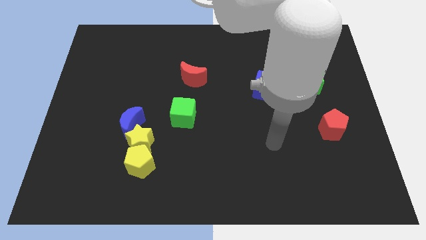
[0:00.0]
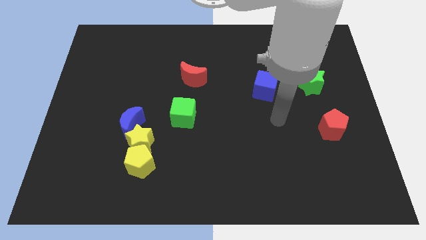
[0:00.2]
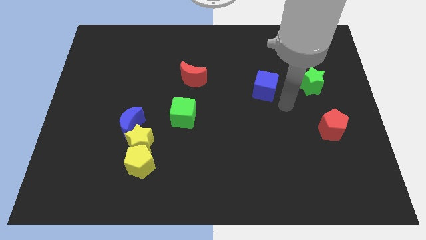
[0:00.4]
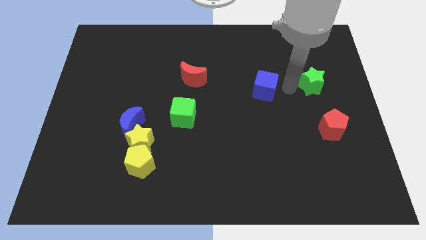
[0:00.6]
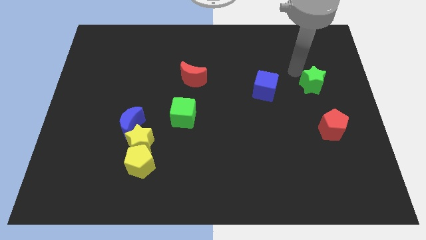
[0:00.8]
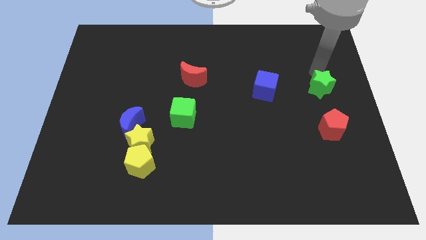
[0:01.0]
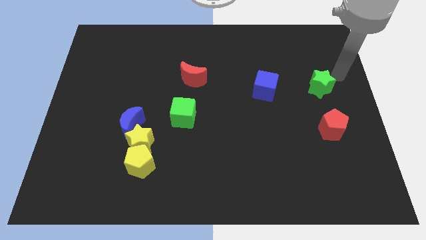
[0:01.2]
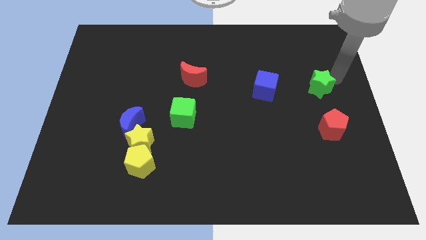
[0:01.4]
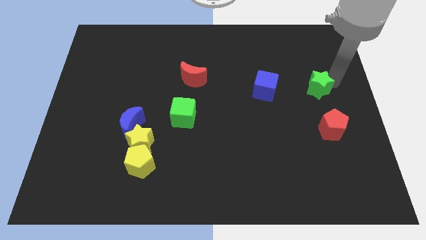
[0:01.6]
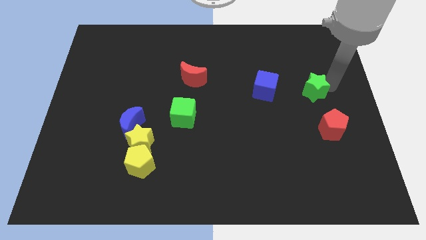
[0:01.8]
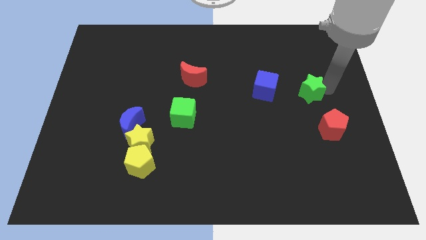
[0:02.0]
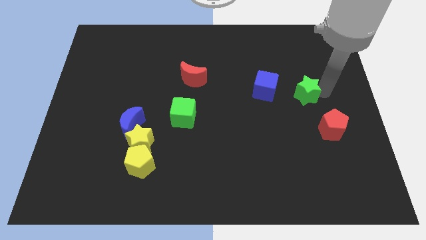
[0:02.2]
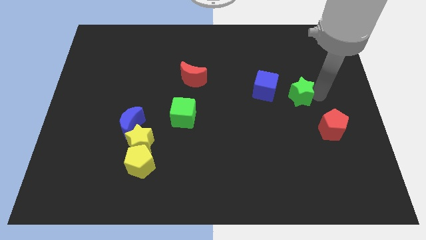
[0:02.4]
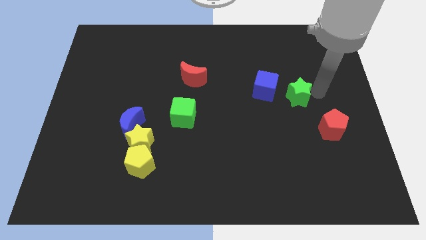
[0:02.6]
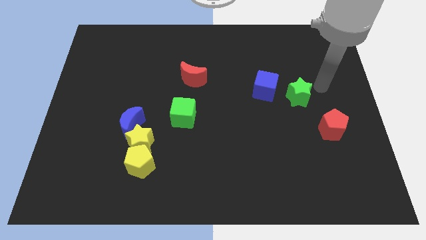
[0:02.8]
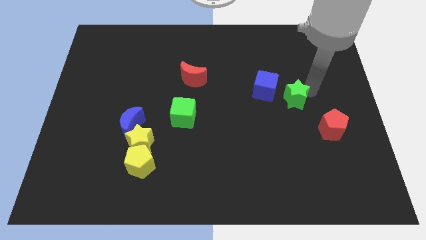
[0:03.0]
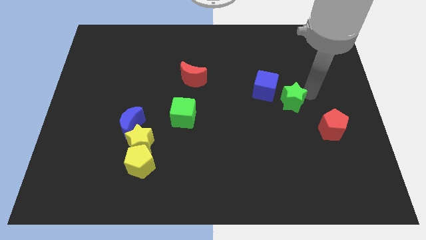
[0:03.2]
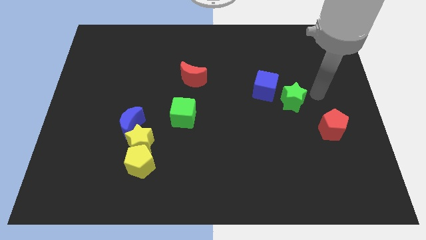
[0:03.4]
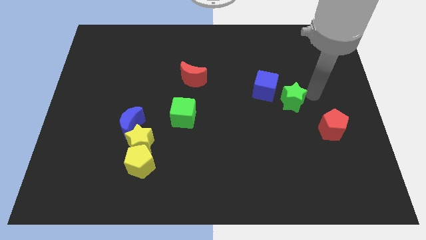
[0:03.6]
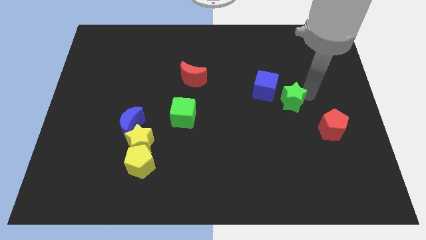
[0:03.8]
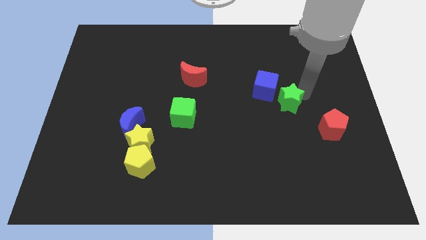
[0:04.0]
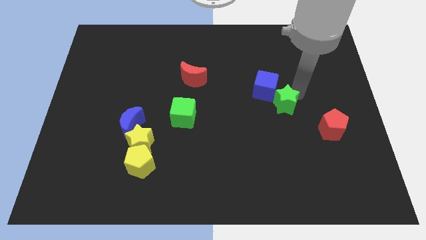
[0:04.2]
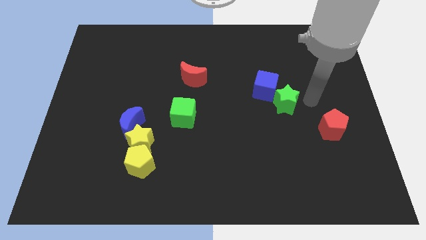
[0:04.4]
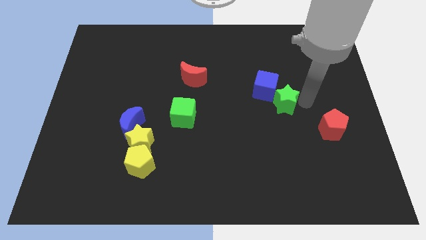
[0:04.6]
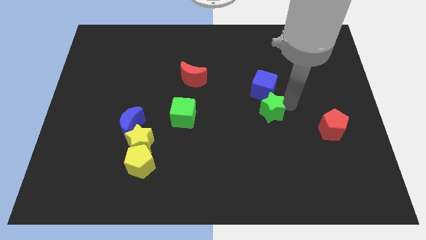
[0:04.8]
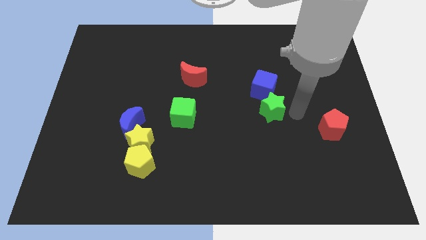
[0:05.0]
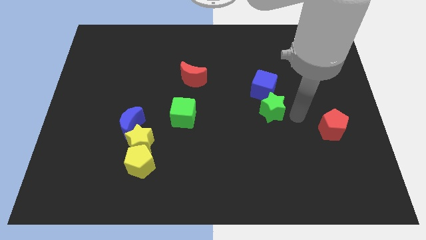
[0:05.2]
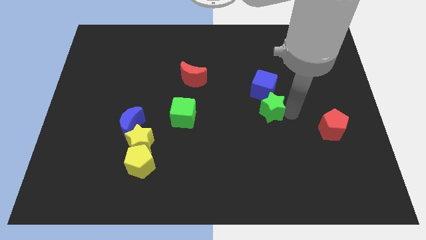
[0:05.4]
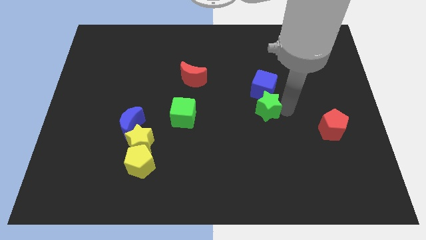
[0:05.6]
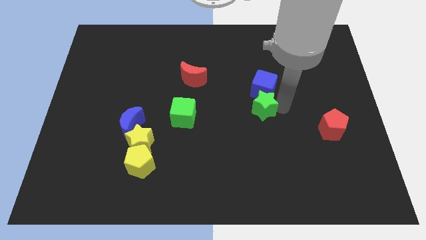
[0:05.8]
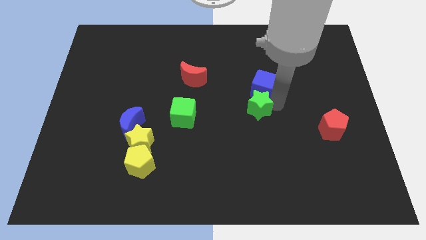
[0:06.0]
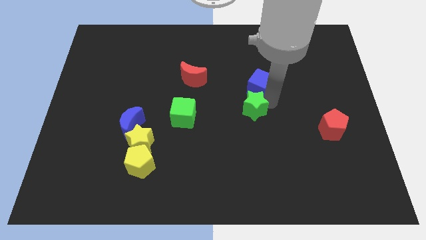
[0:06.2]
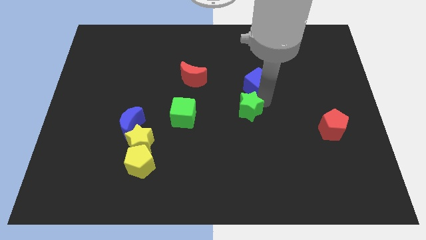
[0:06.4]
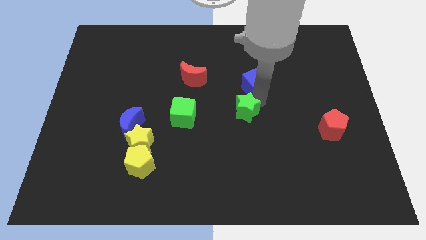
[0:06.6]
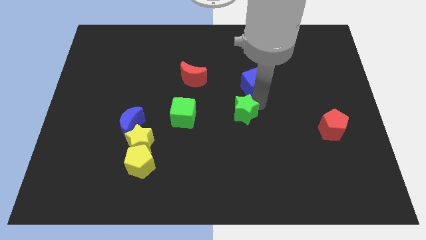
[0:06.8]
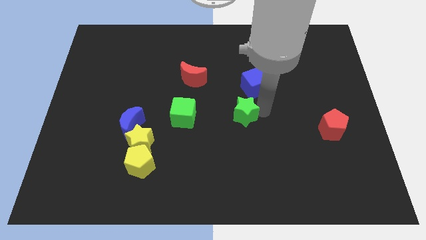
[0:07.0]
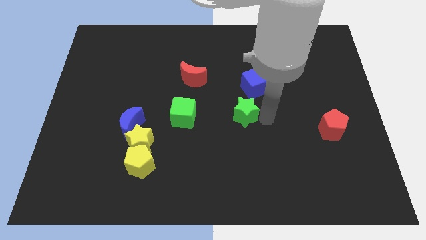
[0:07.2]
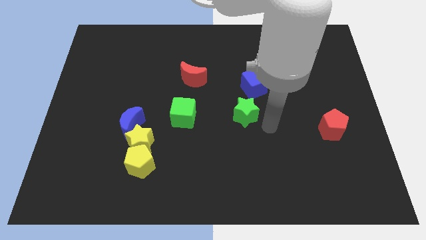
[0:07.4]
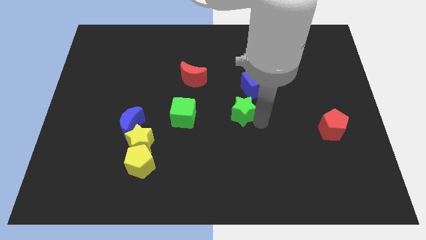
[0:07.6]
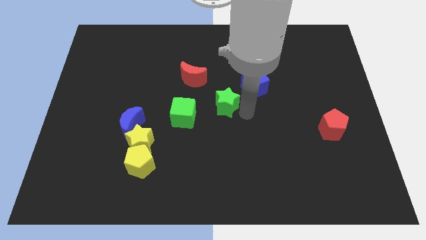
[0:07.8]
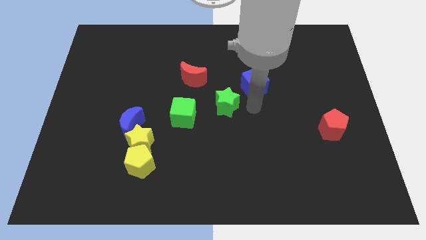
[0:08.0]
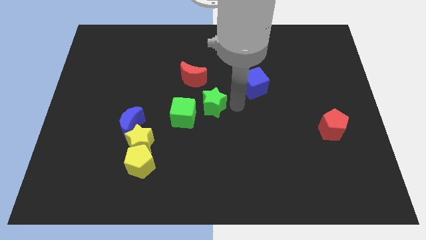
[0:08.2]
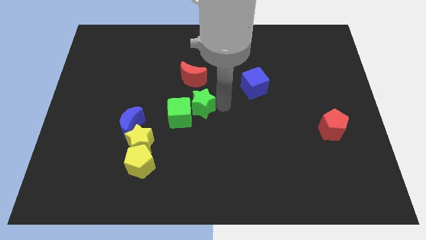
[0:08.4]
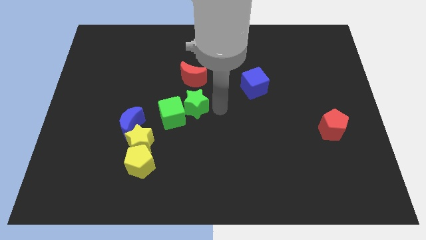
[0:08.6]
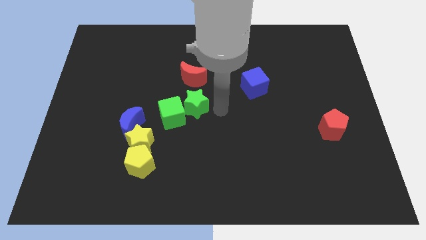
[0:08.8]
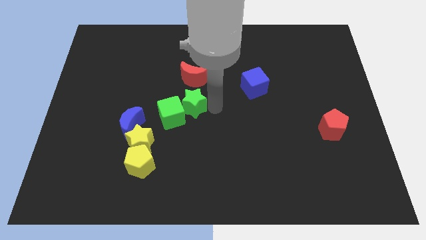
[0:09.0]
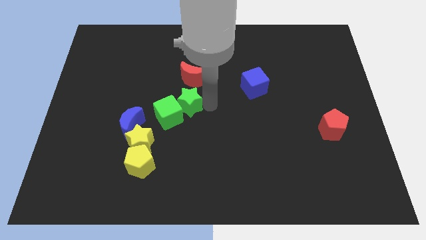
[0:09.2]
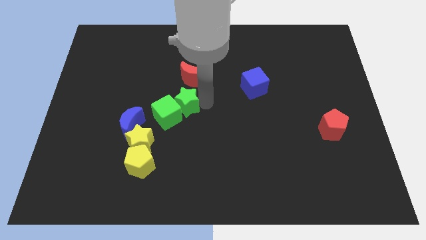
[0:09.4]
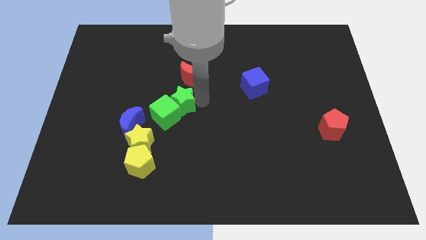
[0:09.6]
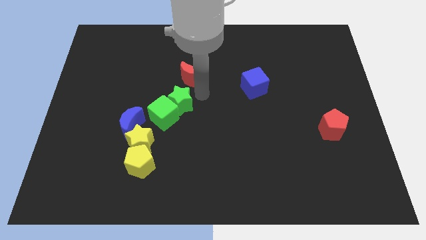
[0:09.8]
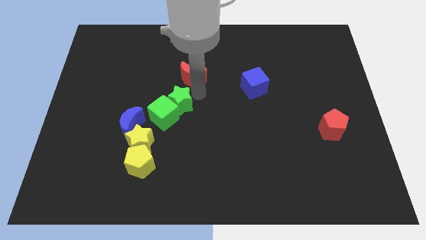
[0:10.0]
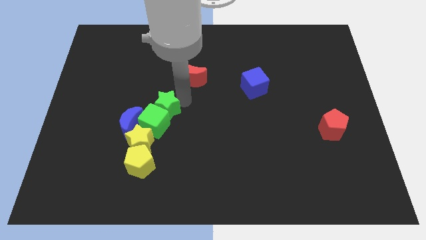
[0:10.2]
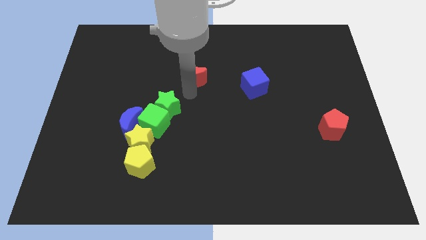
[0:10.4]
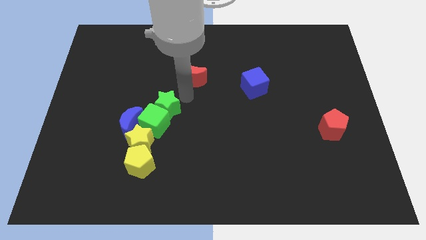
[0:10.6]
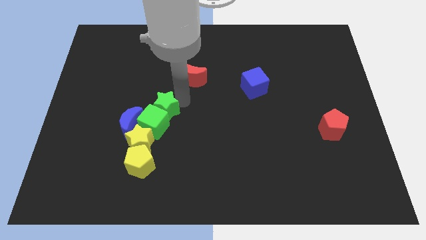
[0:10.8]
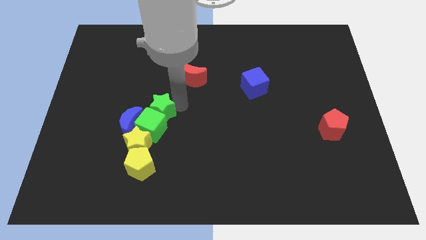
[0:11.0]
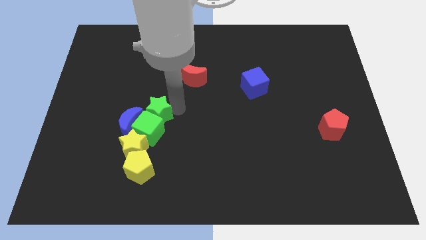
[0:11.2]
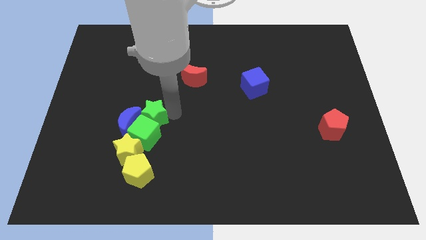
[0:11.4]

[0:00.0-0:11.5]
slide the green star close to the blue moon

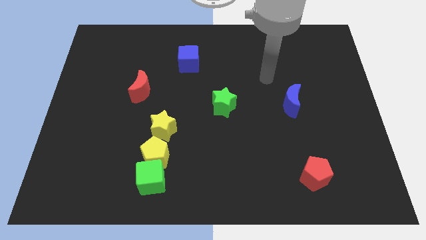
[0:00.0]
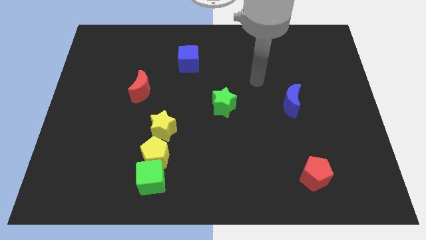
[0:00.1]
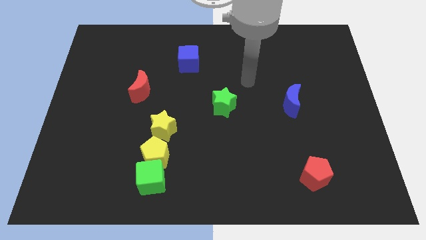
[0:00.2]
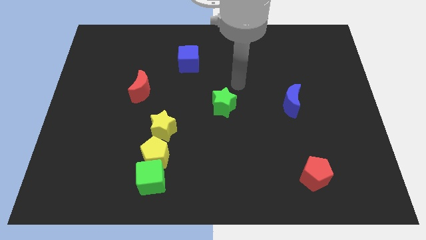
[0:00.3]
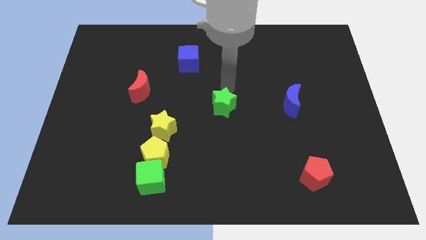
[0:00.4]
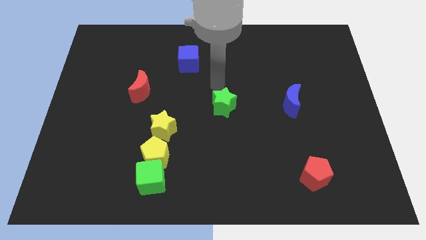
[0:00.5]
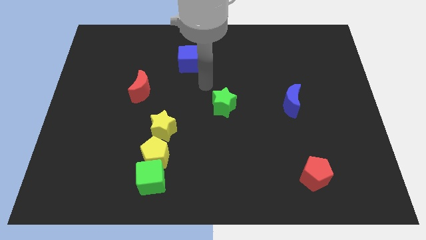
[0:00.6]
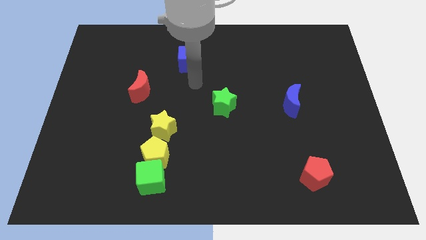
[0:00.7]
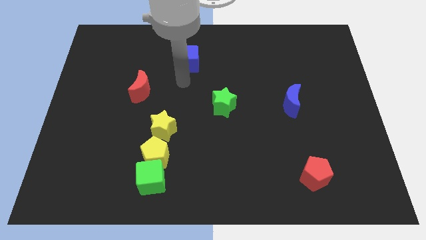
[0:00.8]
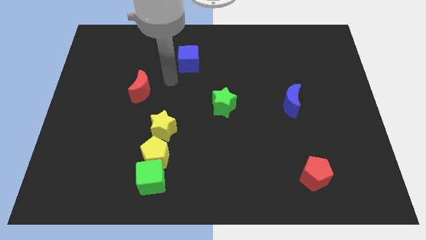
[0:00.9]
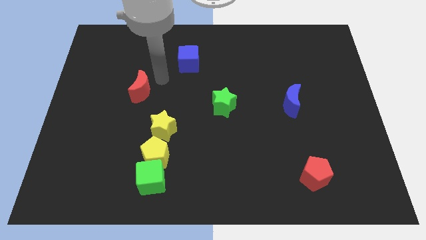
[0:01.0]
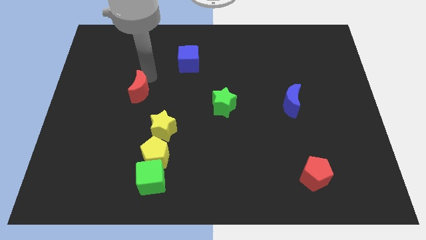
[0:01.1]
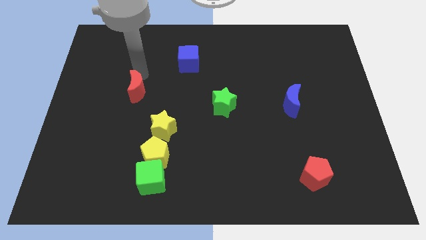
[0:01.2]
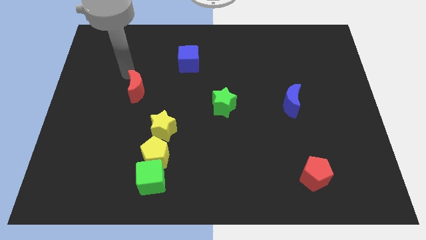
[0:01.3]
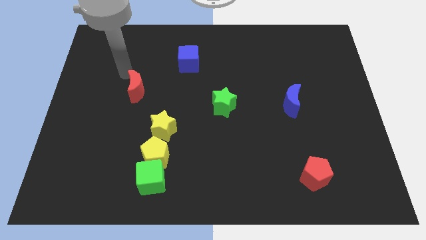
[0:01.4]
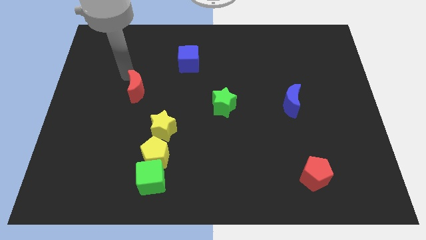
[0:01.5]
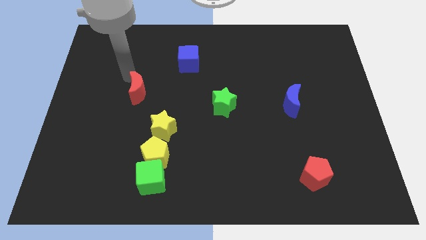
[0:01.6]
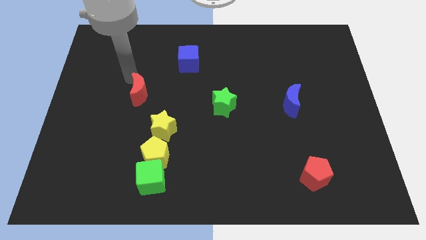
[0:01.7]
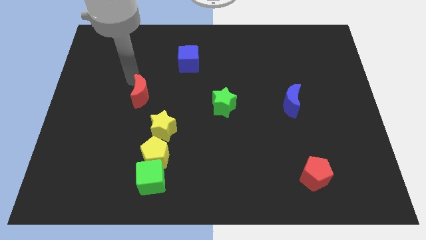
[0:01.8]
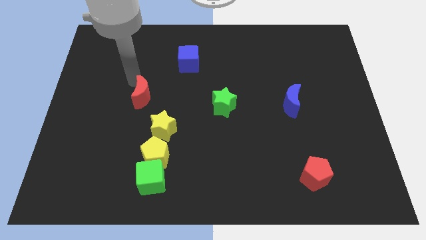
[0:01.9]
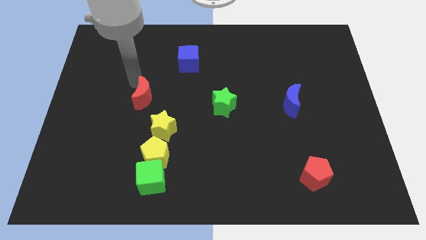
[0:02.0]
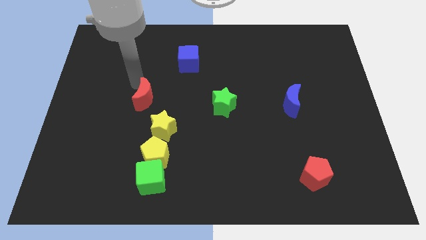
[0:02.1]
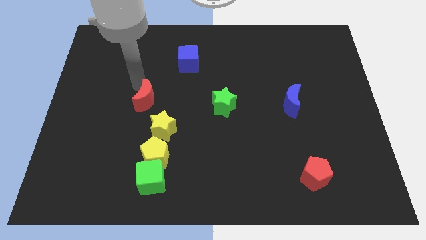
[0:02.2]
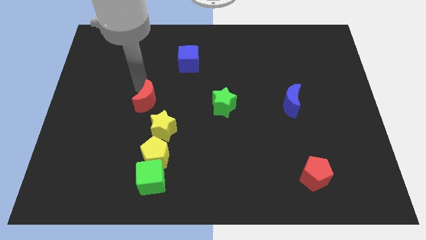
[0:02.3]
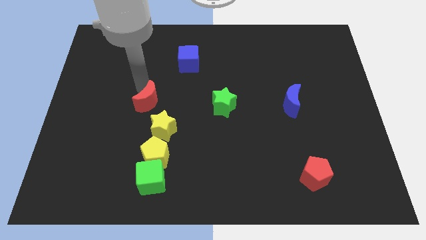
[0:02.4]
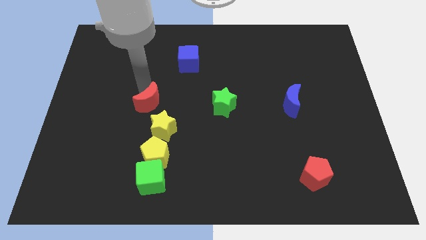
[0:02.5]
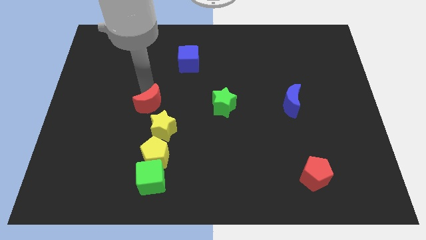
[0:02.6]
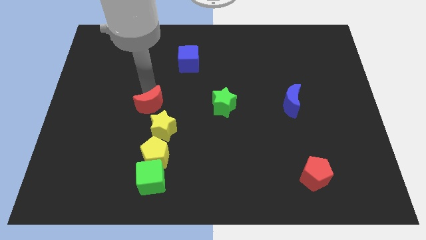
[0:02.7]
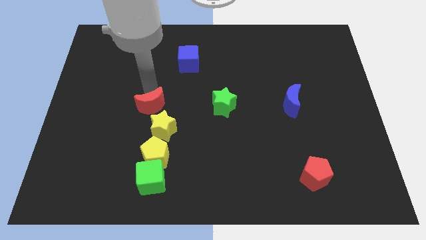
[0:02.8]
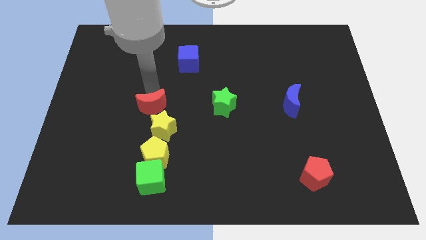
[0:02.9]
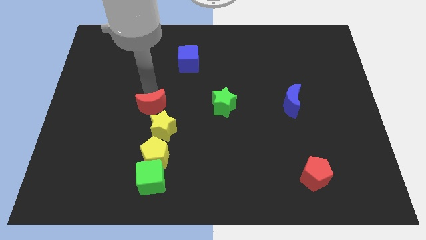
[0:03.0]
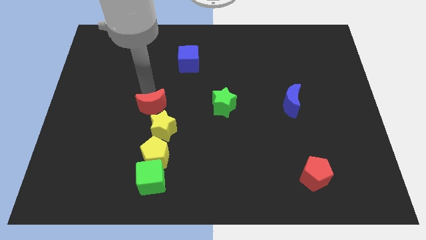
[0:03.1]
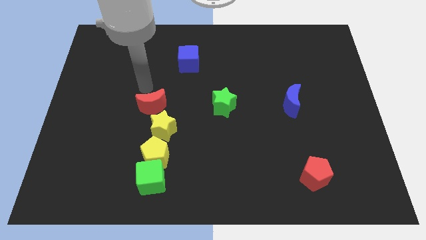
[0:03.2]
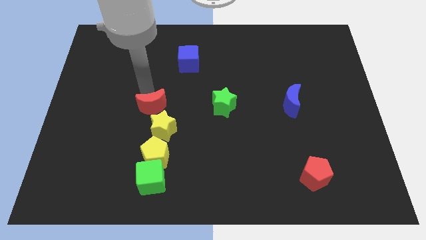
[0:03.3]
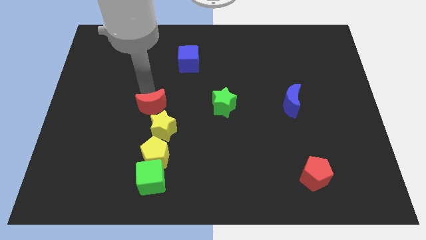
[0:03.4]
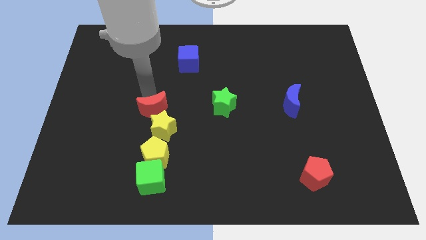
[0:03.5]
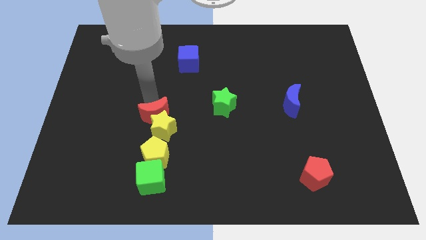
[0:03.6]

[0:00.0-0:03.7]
slide the red moon towards the yellow star
